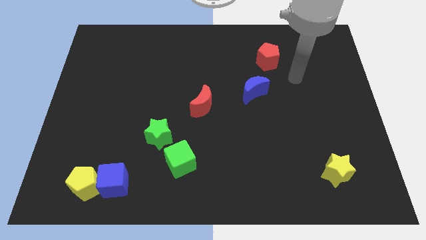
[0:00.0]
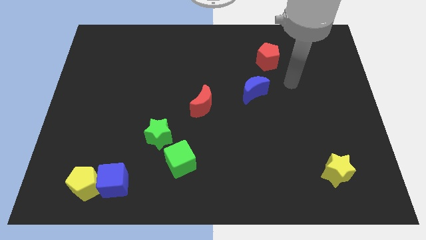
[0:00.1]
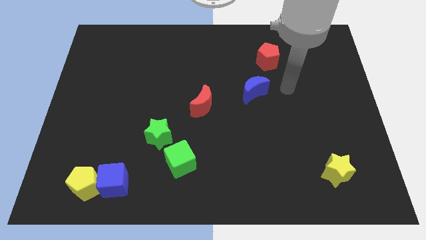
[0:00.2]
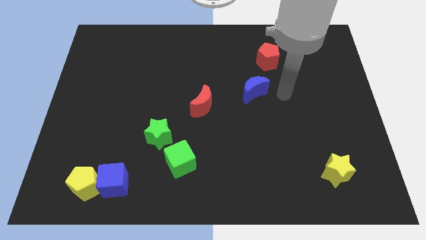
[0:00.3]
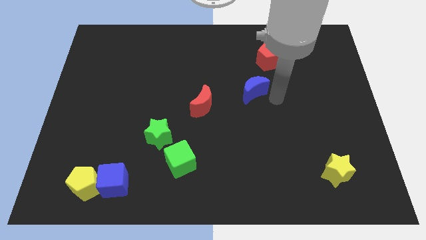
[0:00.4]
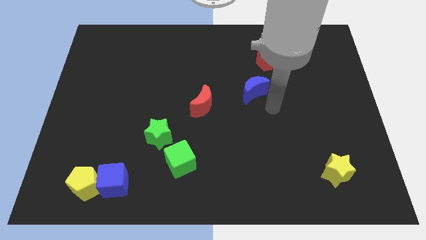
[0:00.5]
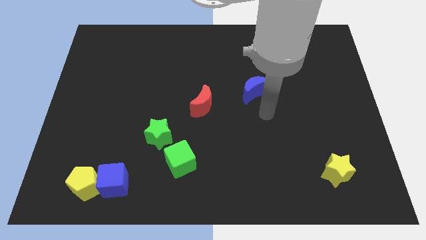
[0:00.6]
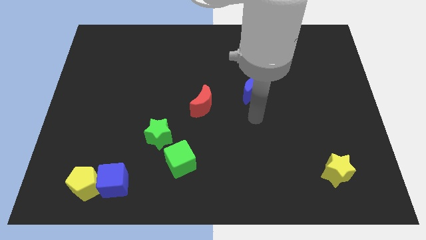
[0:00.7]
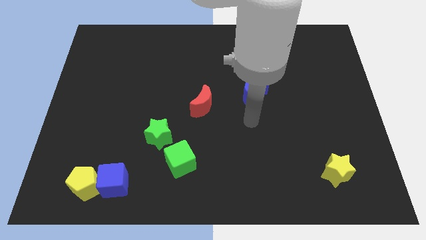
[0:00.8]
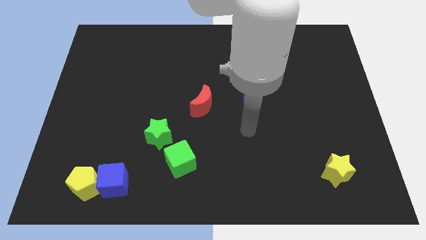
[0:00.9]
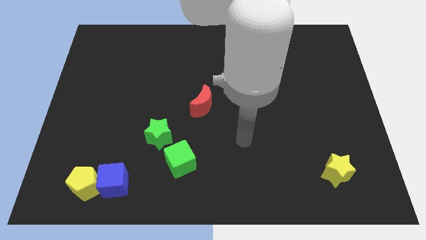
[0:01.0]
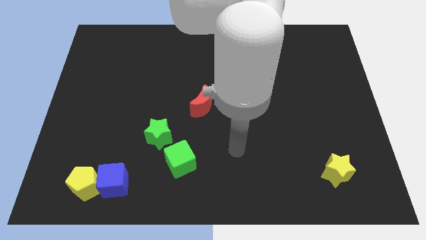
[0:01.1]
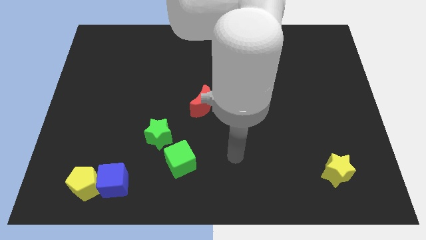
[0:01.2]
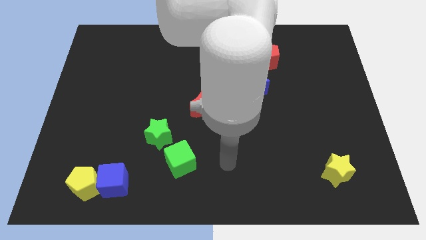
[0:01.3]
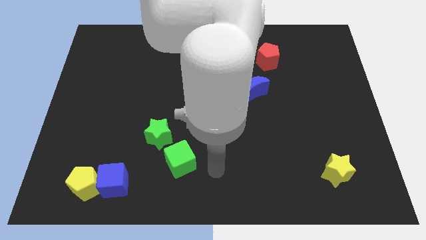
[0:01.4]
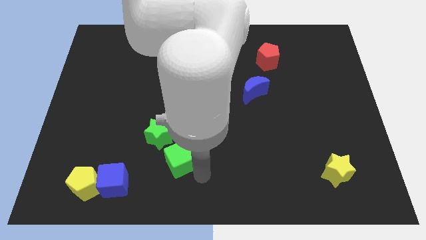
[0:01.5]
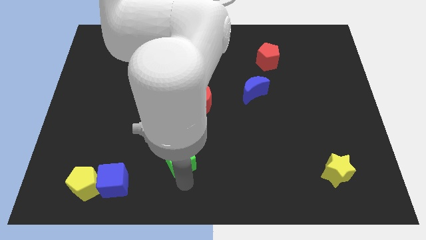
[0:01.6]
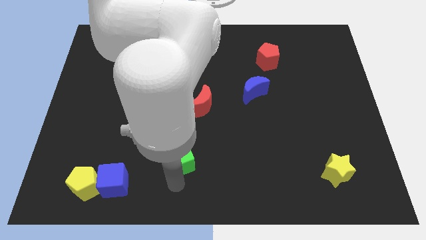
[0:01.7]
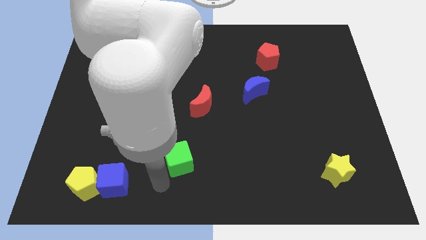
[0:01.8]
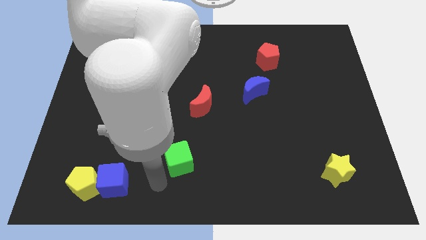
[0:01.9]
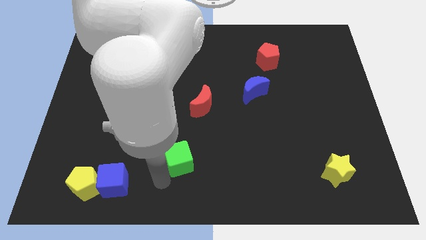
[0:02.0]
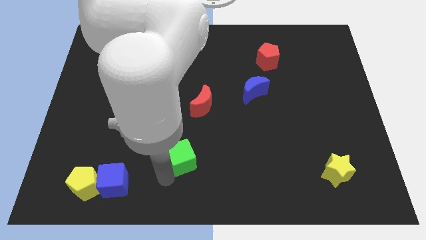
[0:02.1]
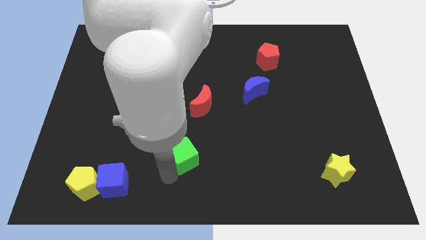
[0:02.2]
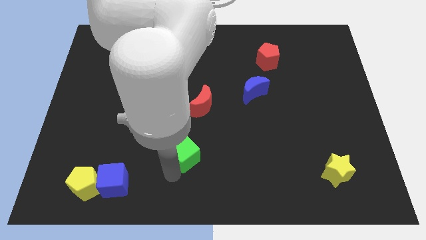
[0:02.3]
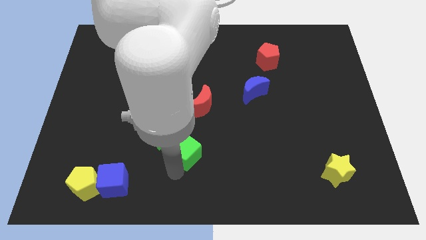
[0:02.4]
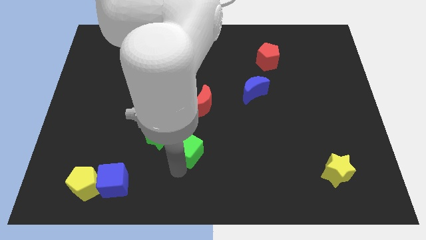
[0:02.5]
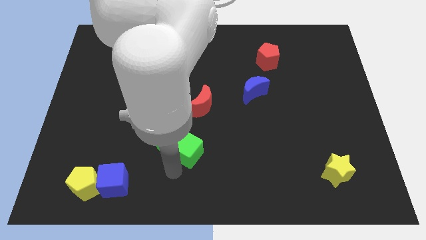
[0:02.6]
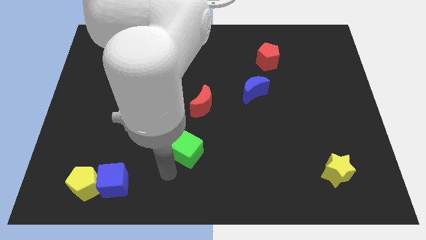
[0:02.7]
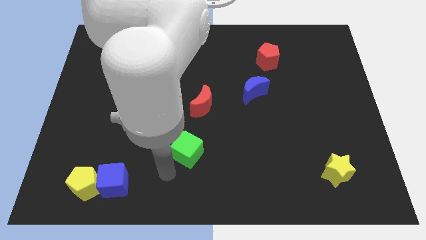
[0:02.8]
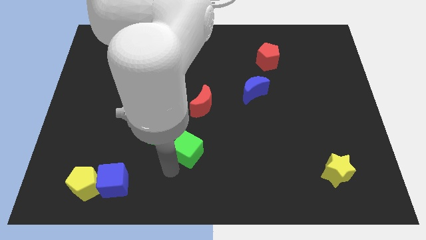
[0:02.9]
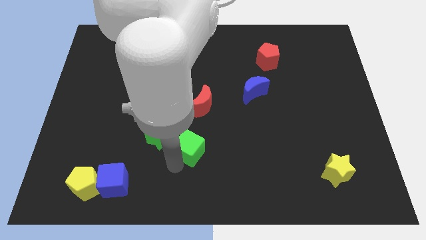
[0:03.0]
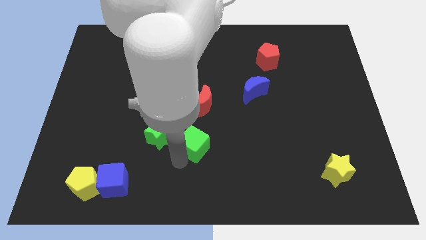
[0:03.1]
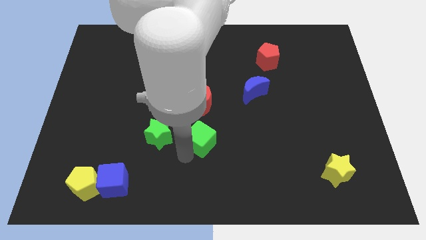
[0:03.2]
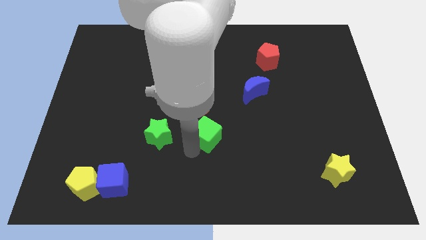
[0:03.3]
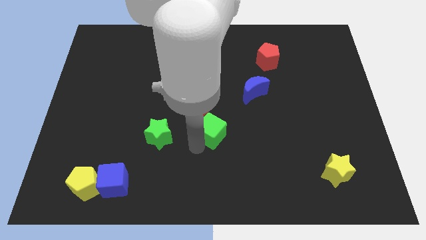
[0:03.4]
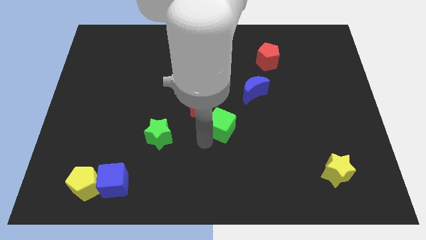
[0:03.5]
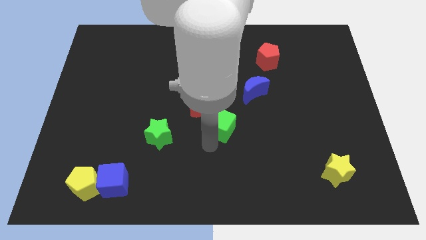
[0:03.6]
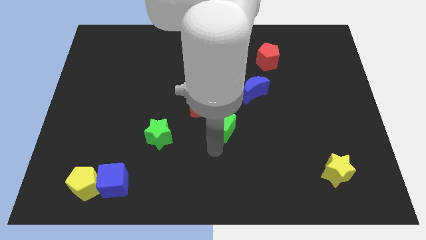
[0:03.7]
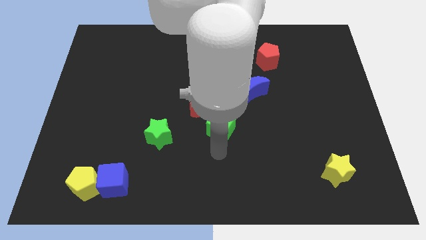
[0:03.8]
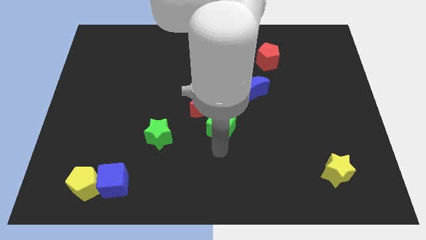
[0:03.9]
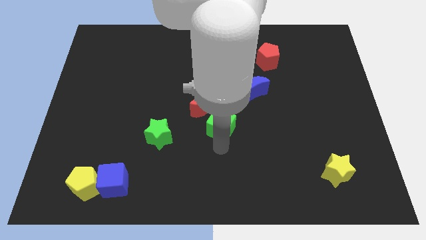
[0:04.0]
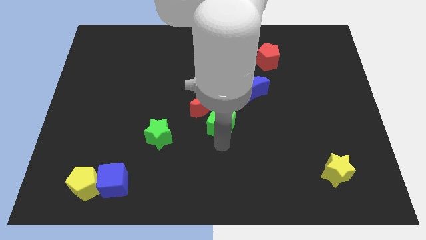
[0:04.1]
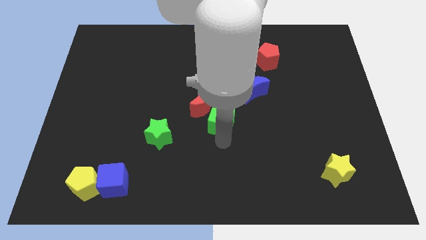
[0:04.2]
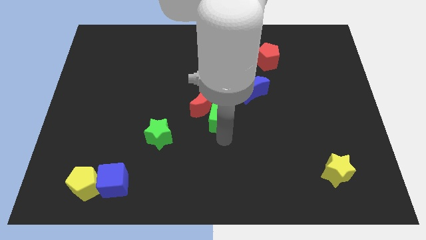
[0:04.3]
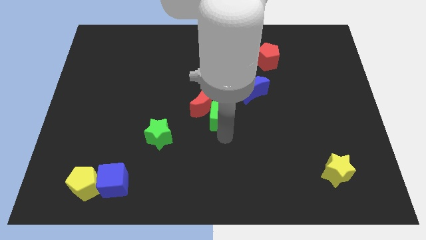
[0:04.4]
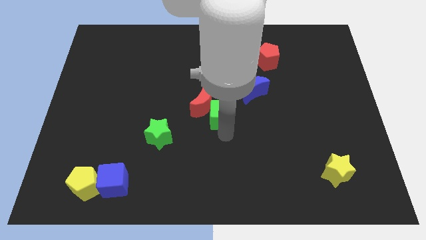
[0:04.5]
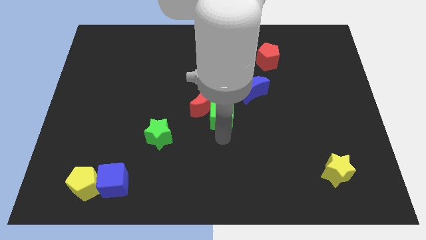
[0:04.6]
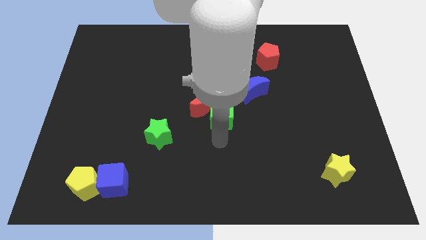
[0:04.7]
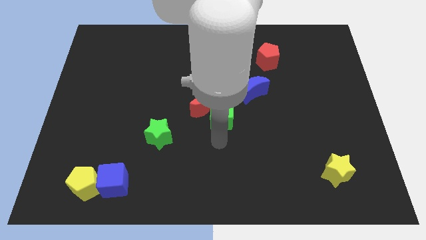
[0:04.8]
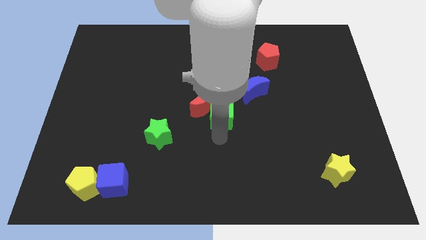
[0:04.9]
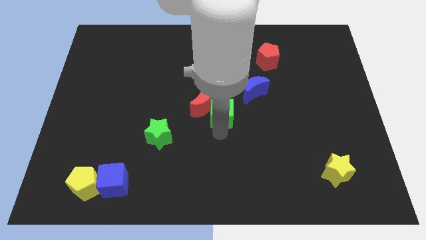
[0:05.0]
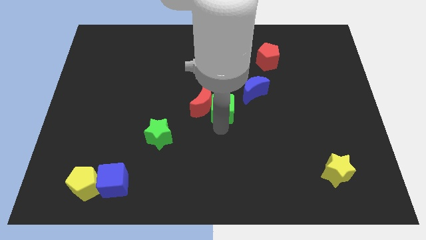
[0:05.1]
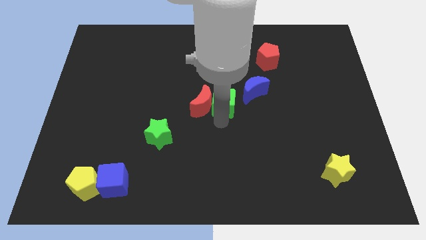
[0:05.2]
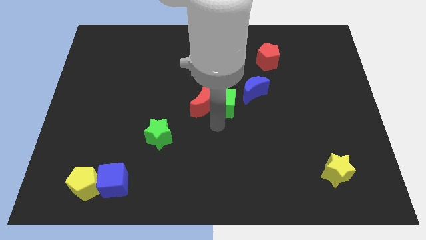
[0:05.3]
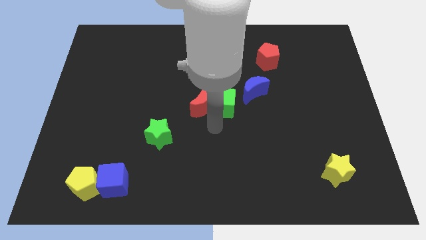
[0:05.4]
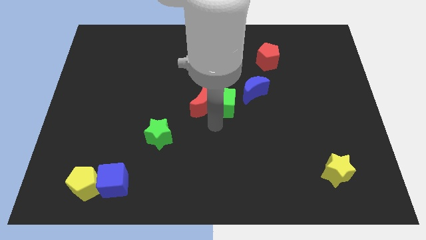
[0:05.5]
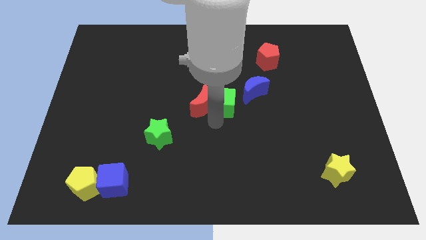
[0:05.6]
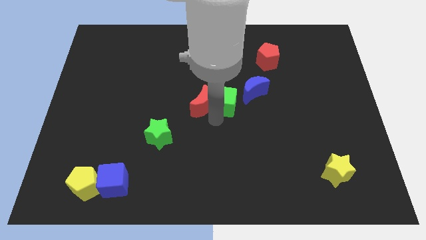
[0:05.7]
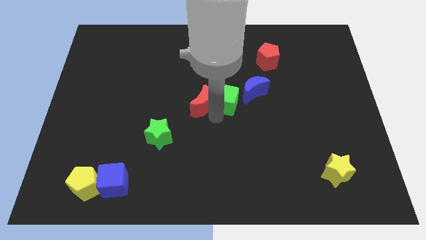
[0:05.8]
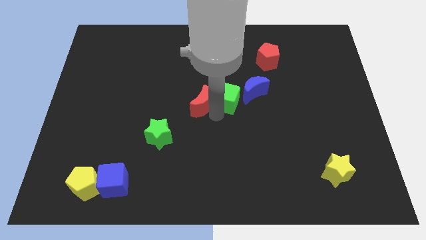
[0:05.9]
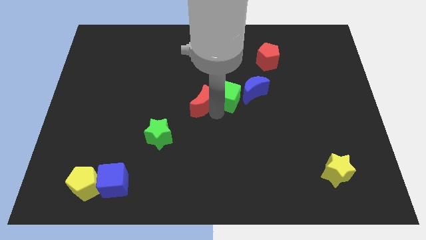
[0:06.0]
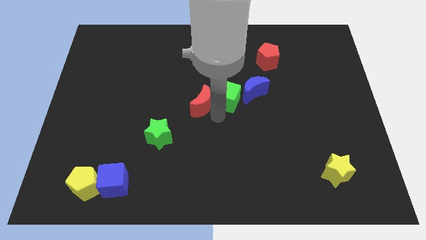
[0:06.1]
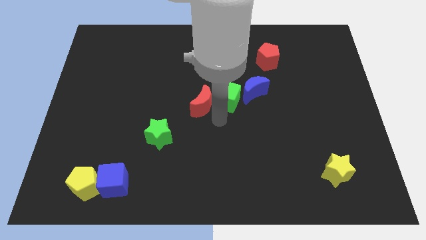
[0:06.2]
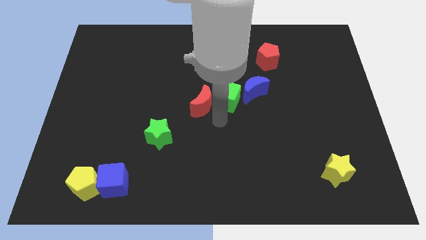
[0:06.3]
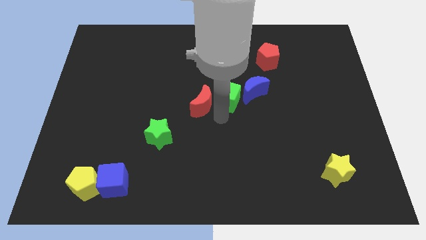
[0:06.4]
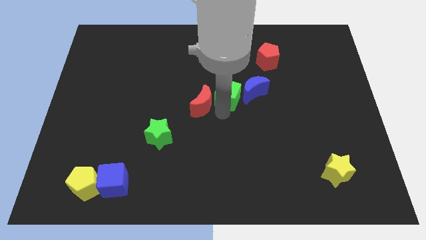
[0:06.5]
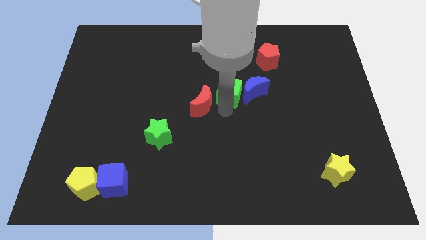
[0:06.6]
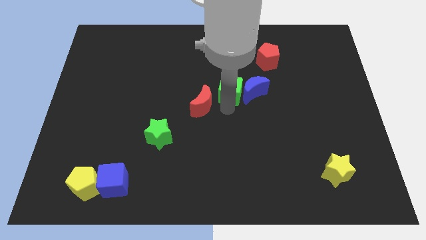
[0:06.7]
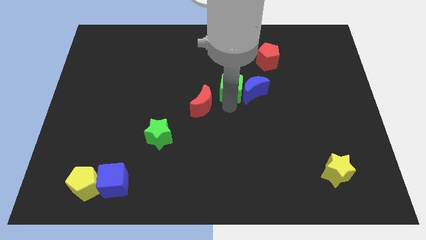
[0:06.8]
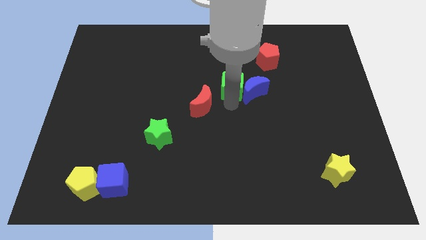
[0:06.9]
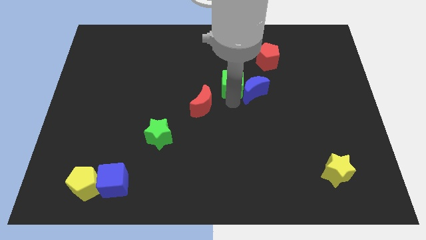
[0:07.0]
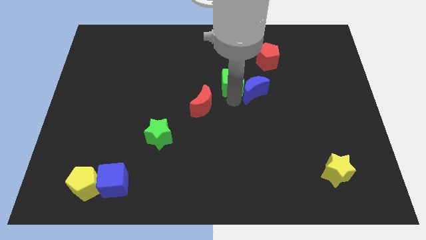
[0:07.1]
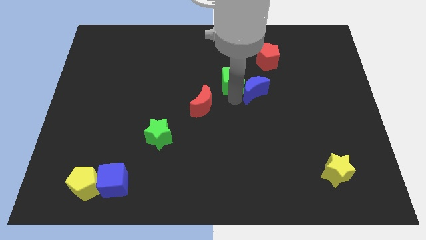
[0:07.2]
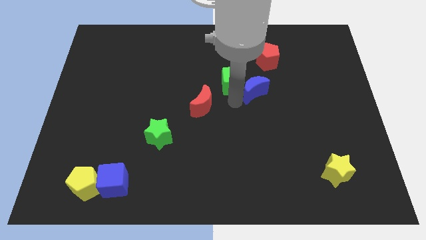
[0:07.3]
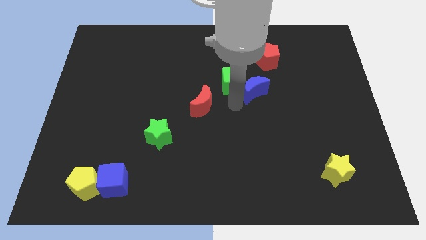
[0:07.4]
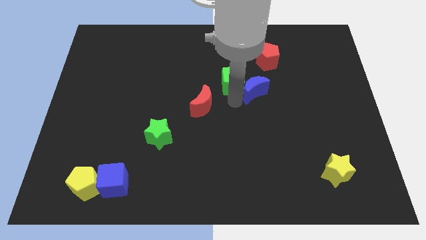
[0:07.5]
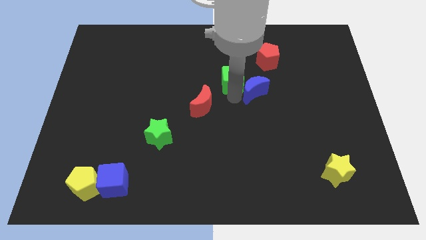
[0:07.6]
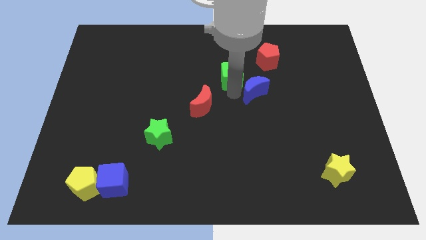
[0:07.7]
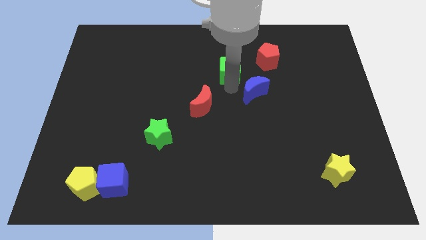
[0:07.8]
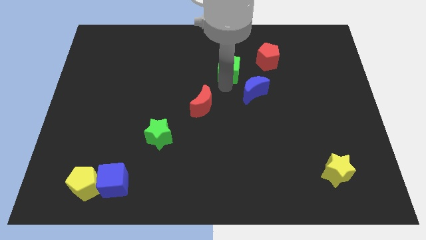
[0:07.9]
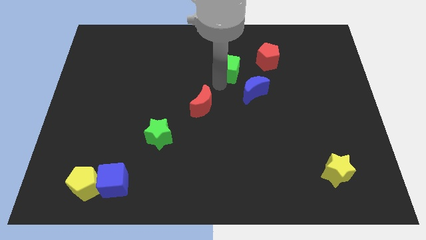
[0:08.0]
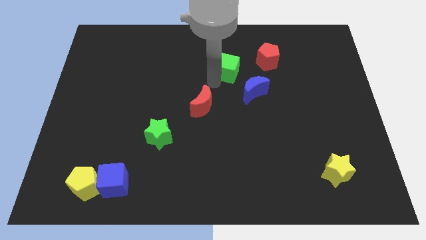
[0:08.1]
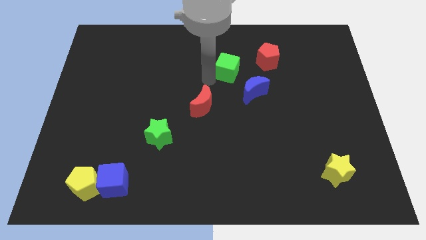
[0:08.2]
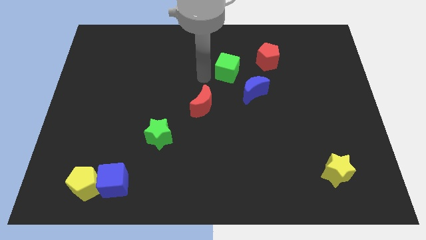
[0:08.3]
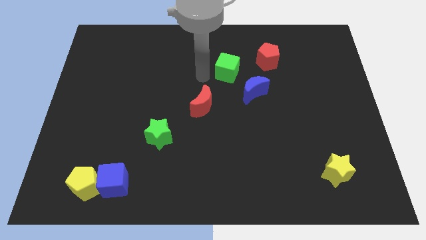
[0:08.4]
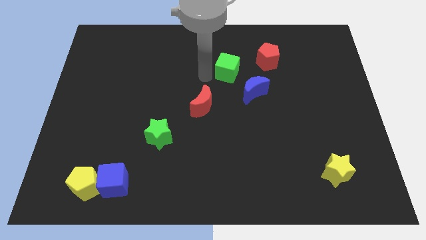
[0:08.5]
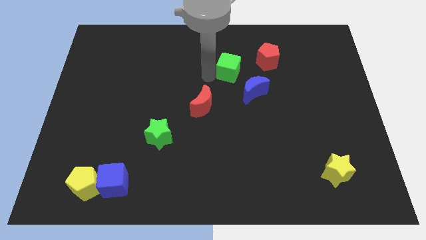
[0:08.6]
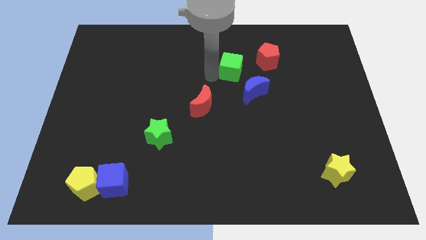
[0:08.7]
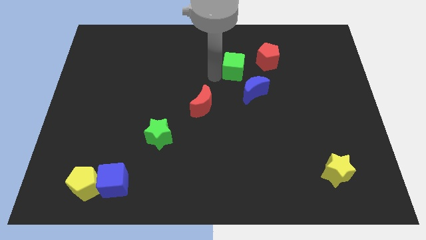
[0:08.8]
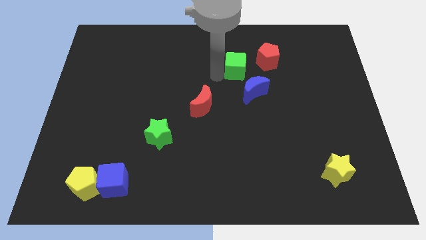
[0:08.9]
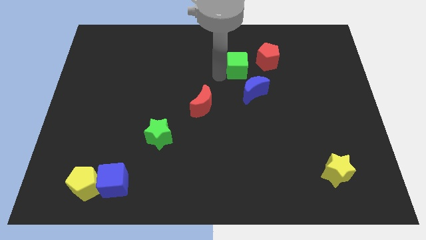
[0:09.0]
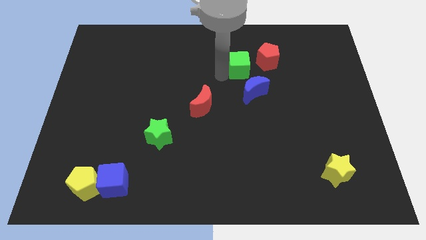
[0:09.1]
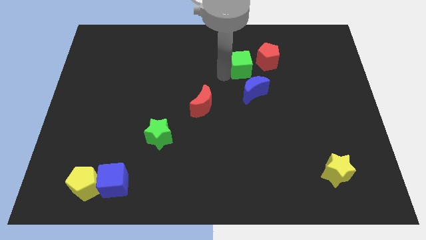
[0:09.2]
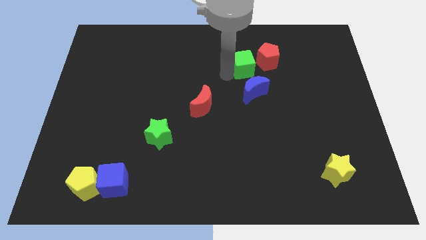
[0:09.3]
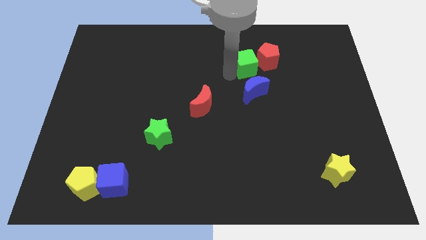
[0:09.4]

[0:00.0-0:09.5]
slide the green cube next to the red pentagon
